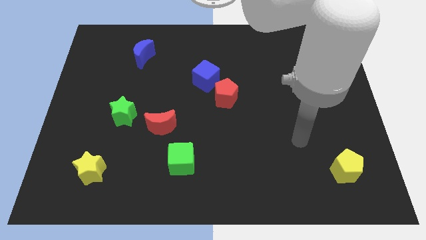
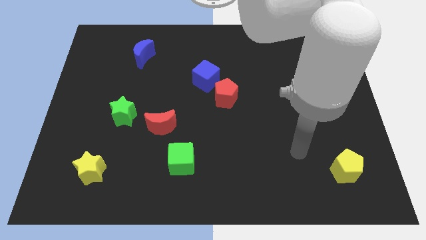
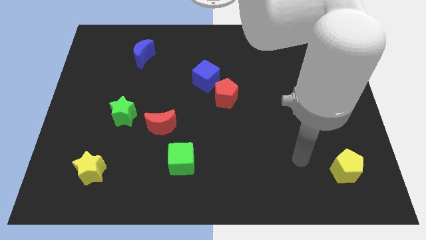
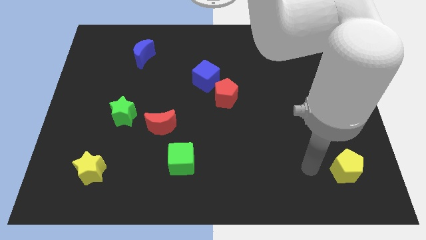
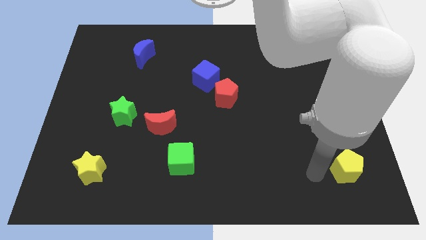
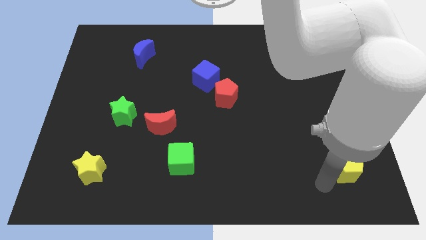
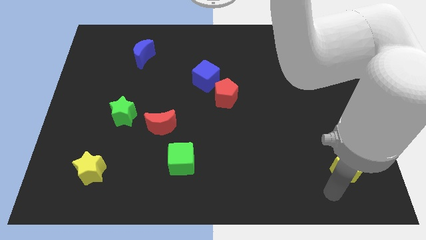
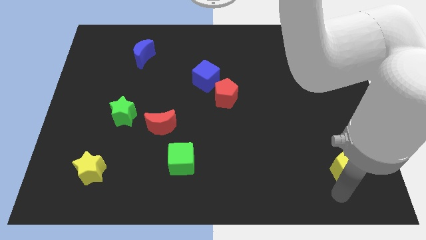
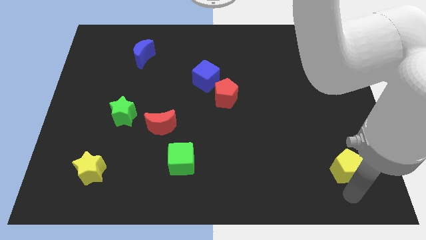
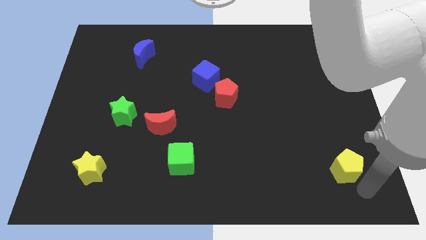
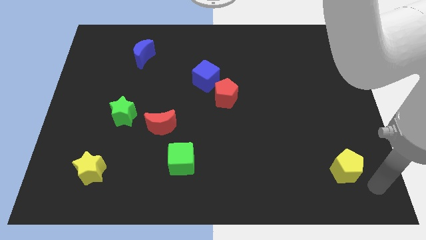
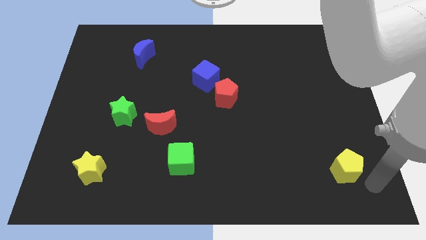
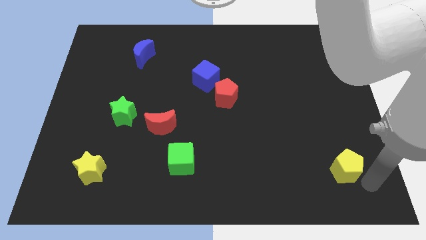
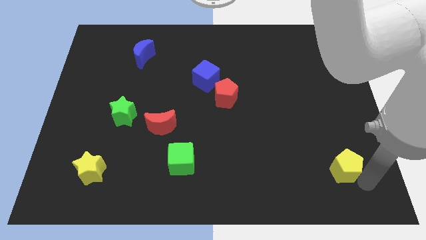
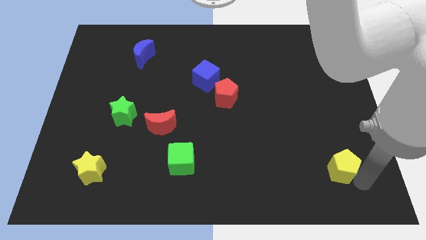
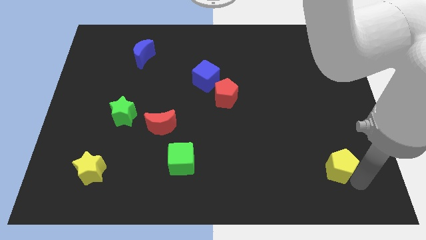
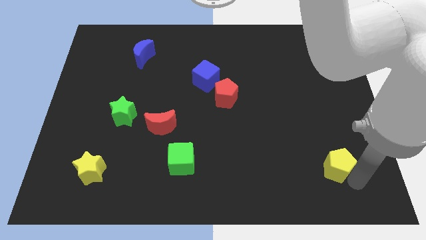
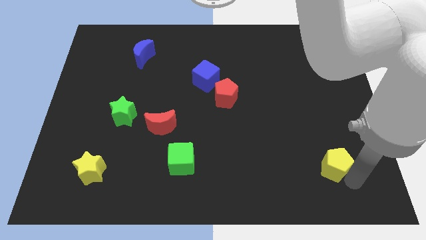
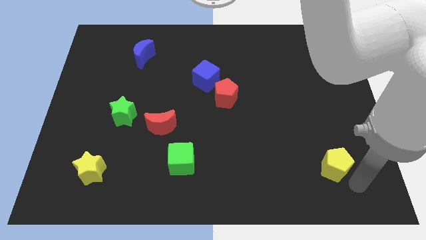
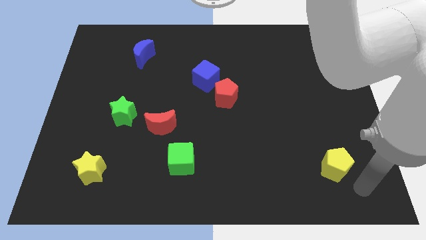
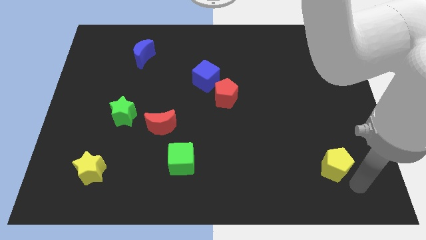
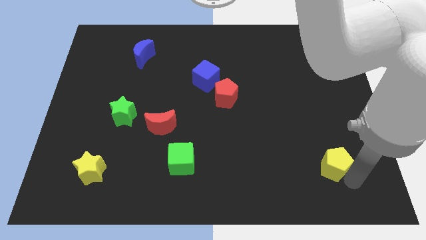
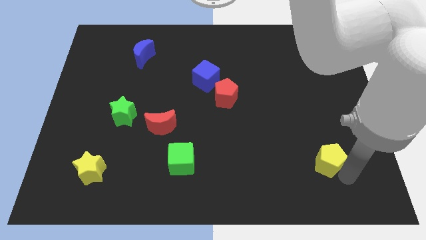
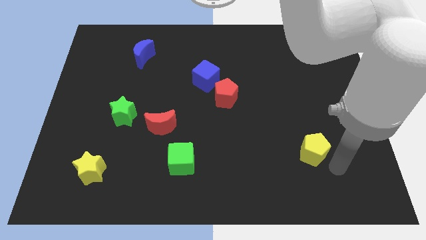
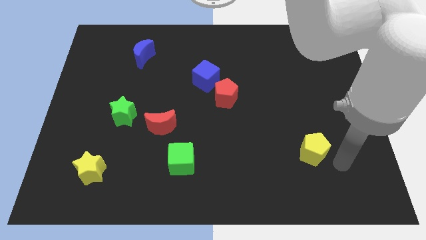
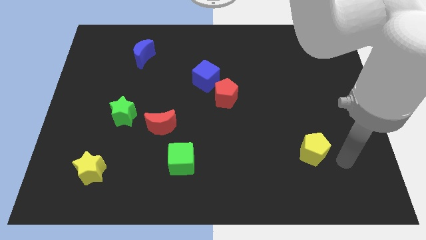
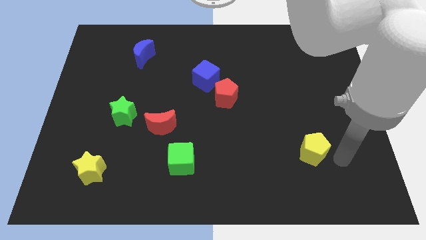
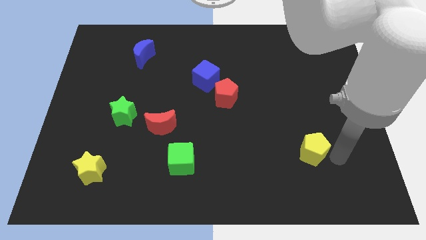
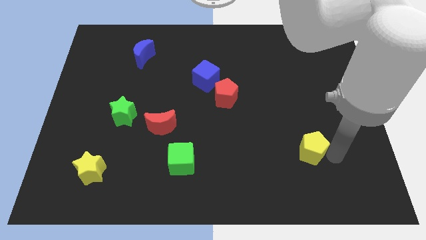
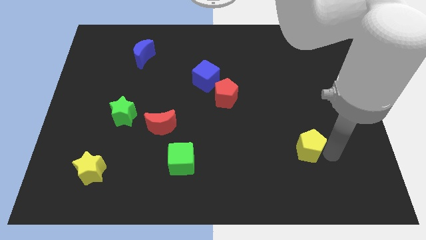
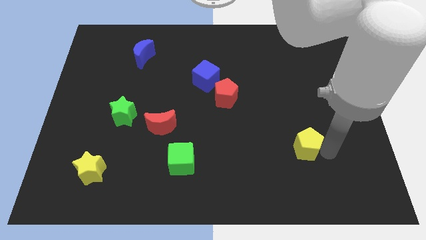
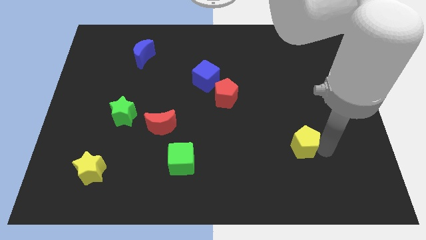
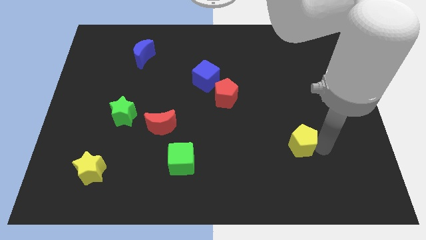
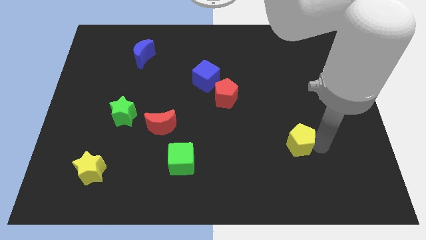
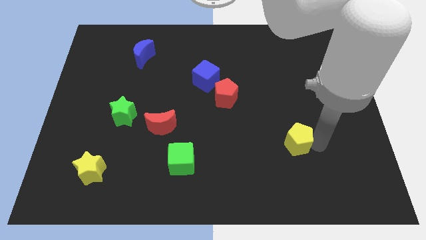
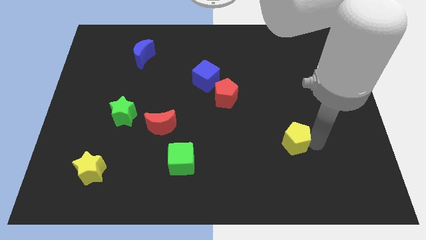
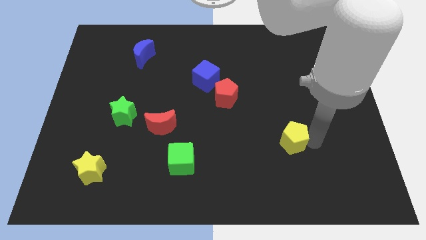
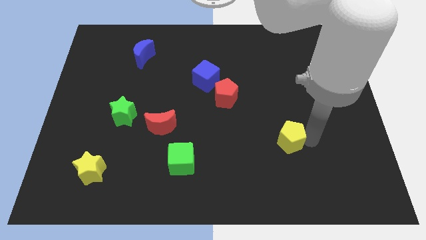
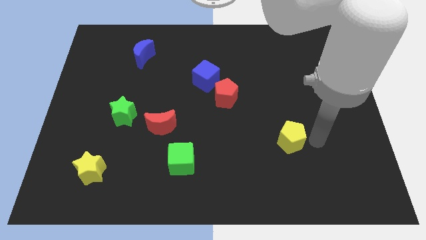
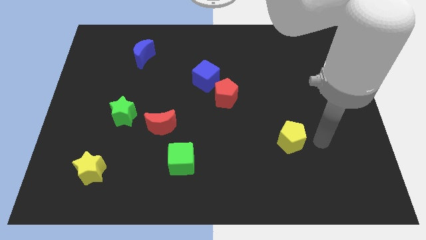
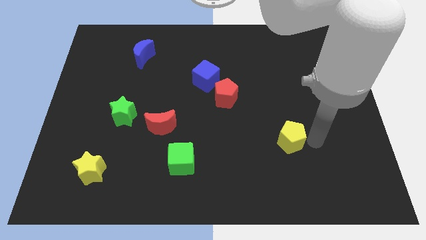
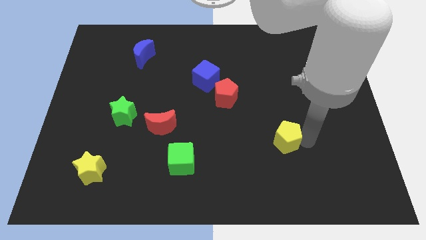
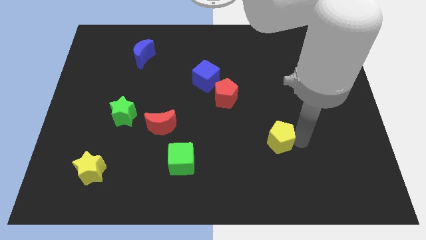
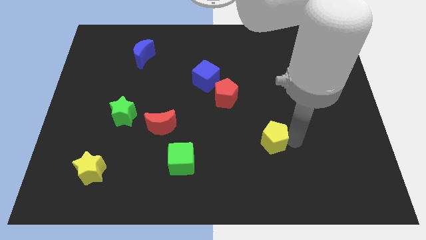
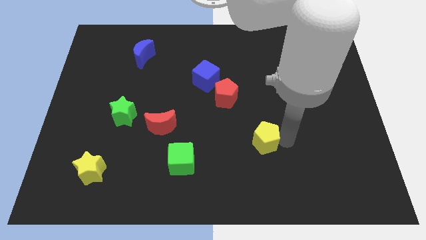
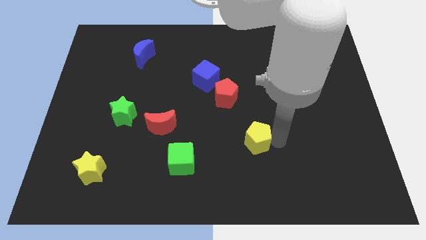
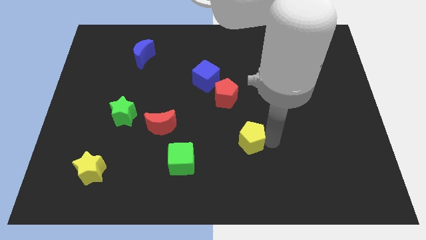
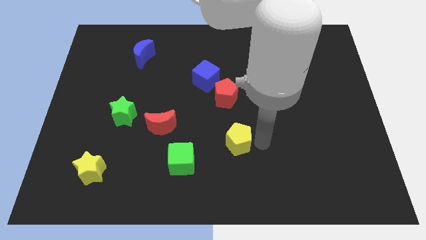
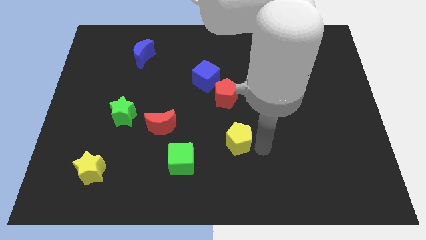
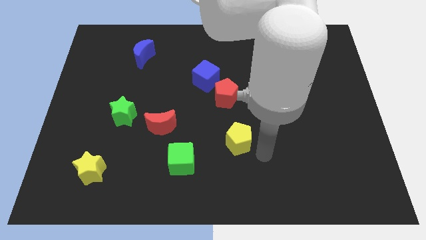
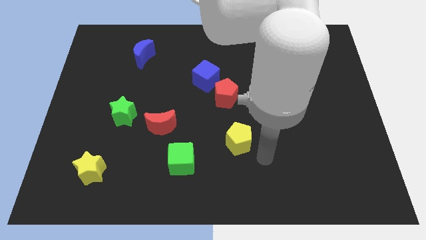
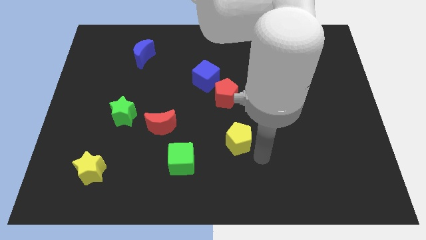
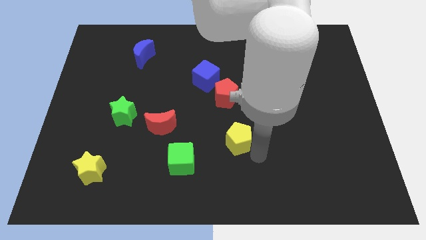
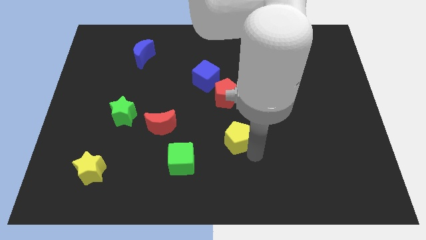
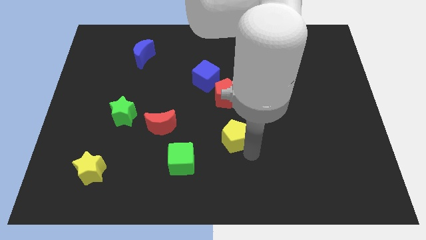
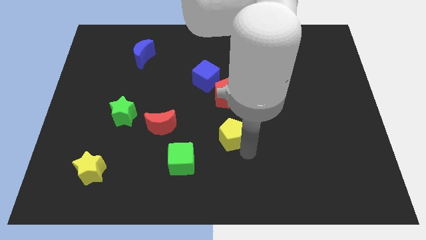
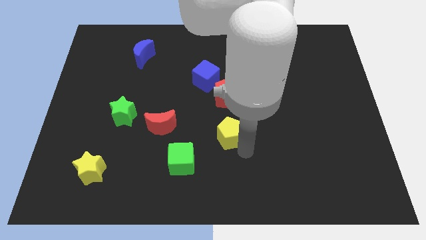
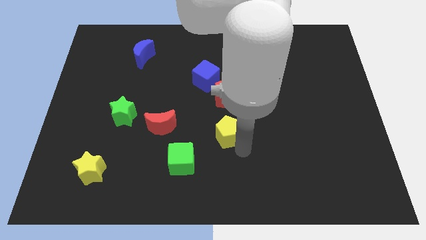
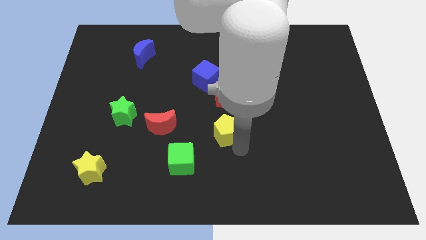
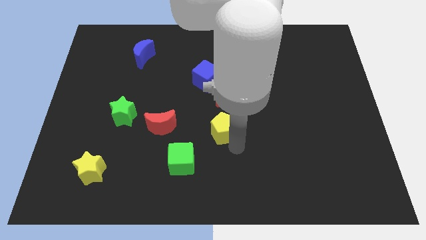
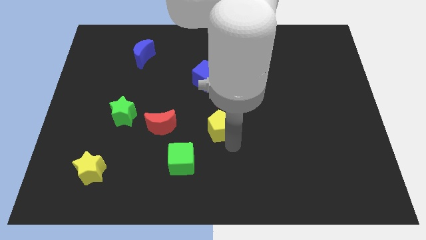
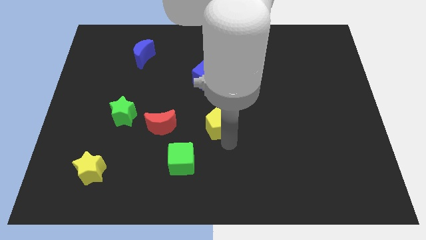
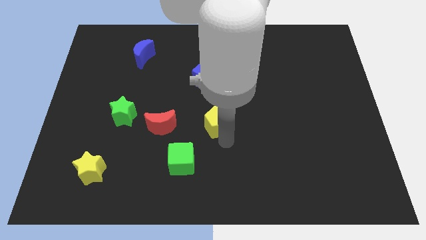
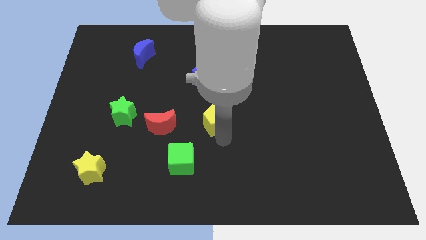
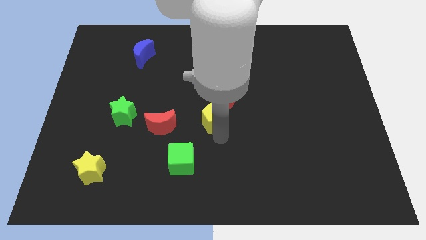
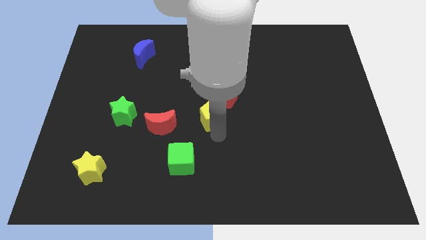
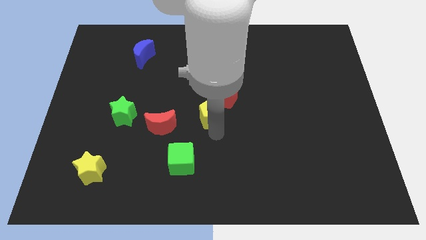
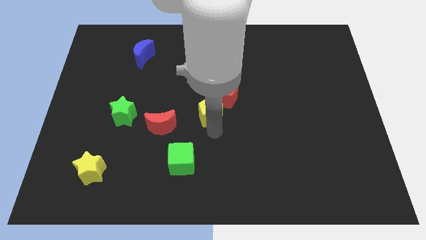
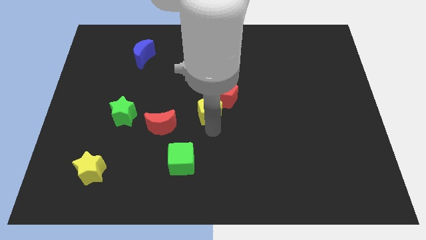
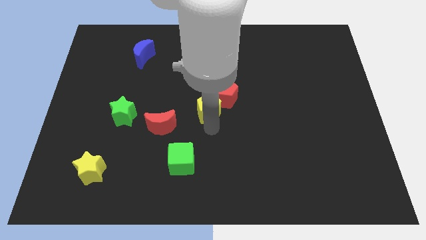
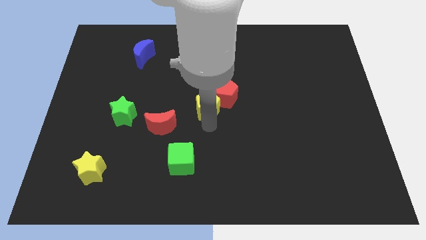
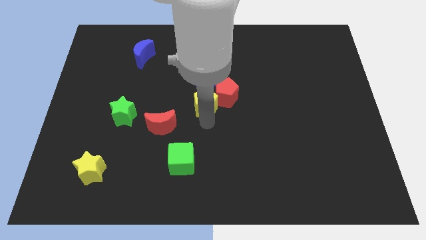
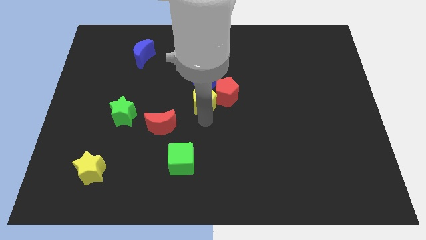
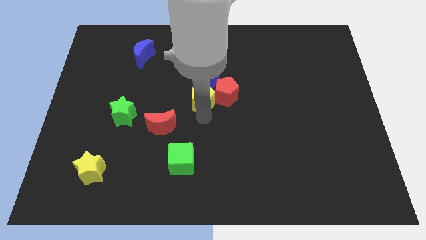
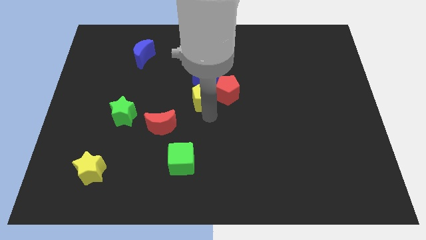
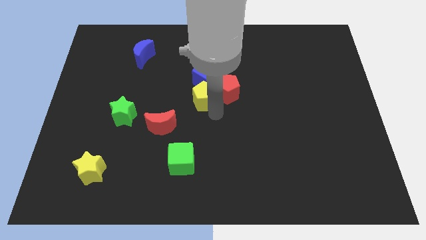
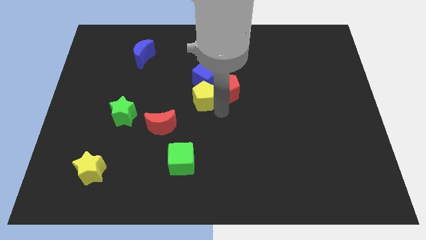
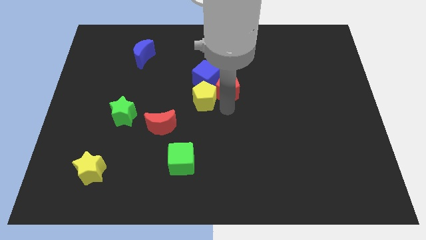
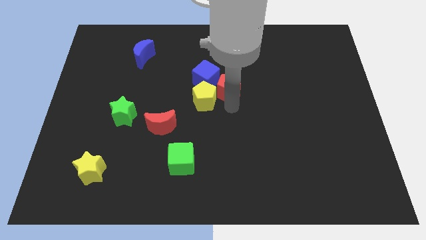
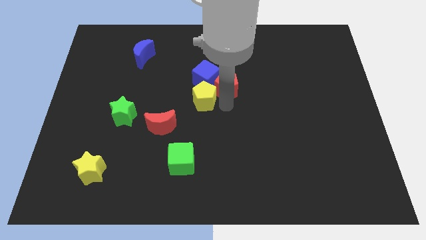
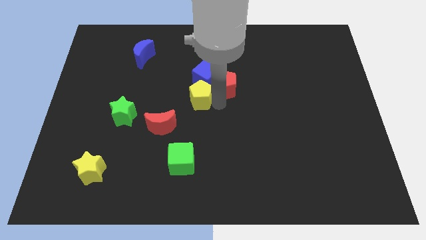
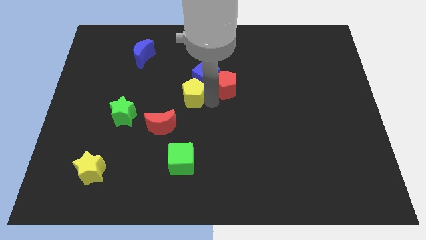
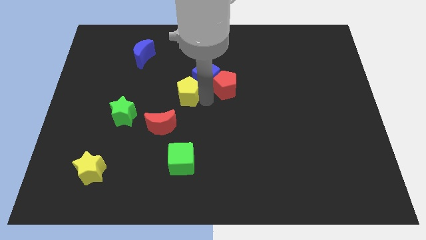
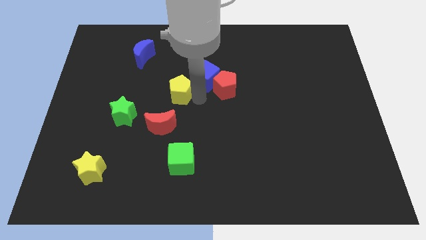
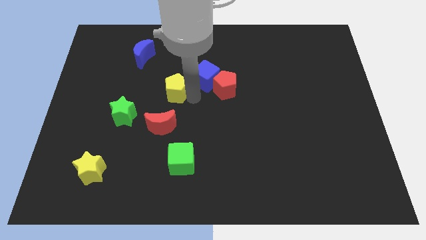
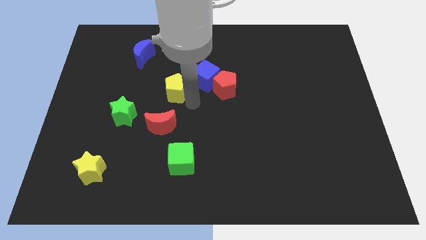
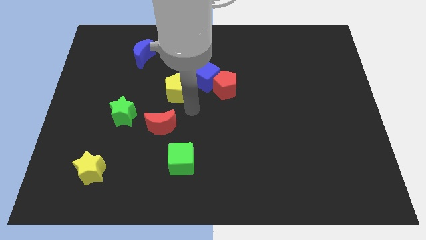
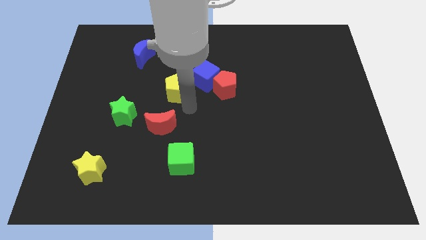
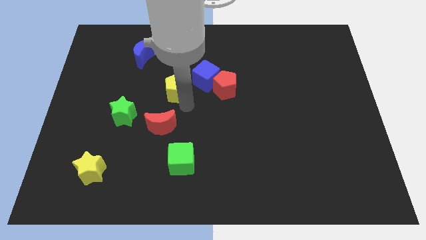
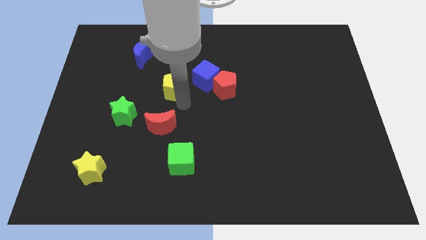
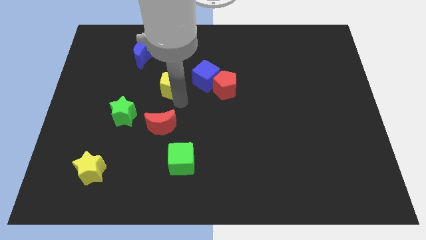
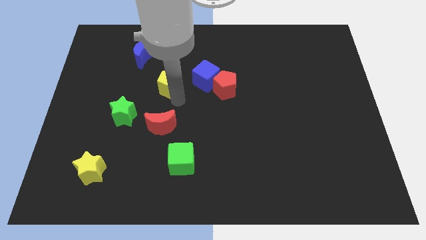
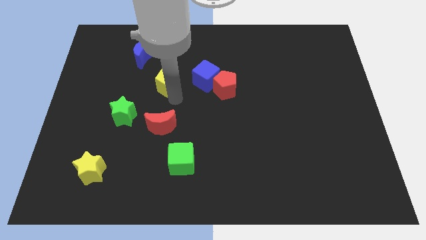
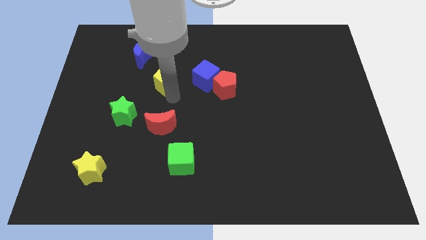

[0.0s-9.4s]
put the yellow pentagon diagonally down and to the right of the blue moon
